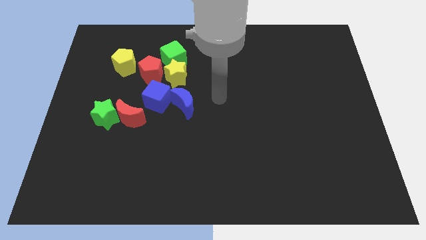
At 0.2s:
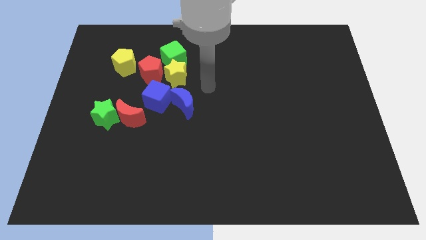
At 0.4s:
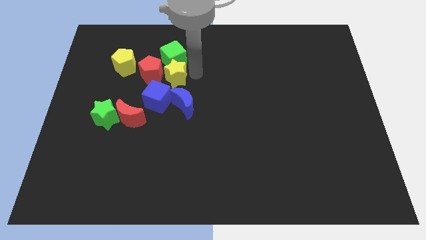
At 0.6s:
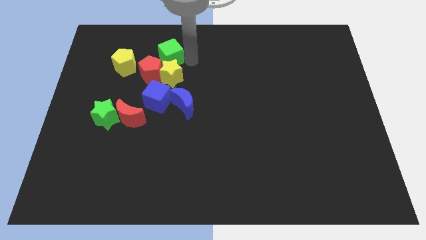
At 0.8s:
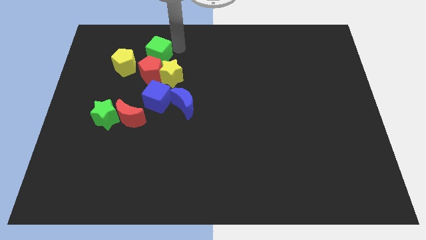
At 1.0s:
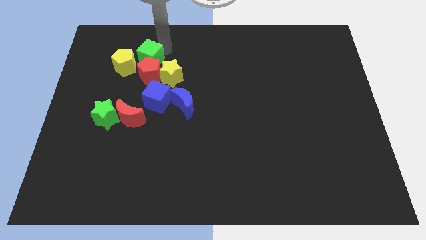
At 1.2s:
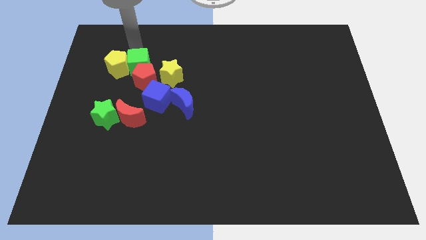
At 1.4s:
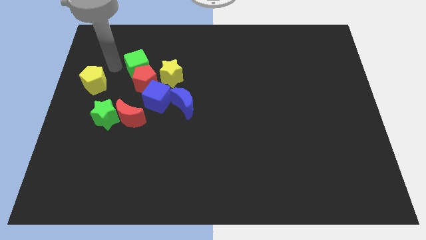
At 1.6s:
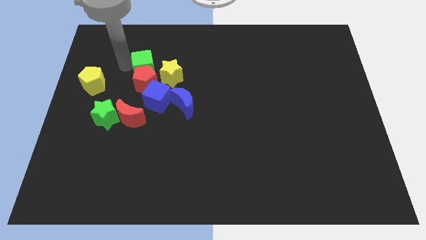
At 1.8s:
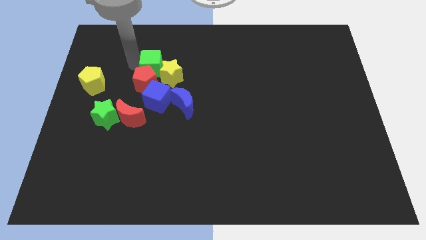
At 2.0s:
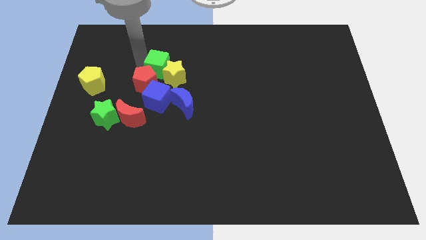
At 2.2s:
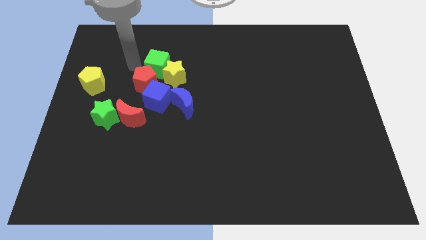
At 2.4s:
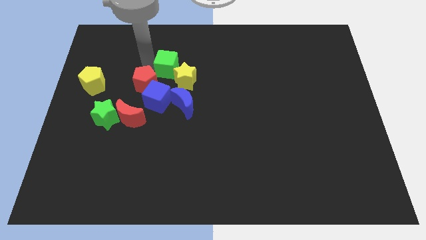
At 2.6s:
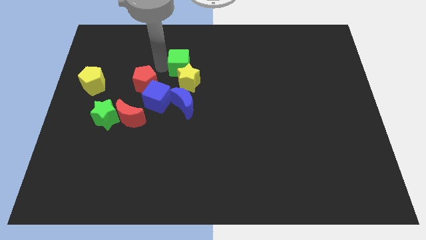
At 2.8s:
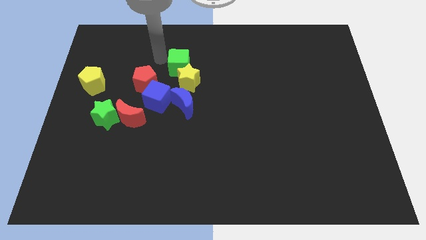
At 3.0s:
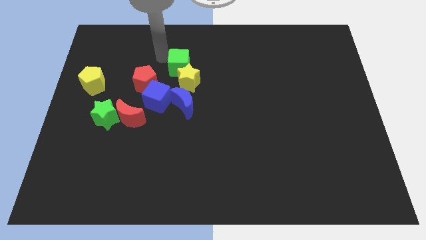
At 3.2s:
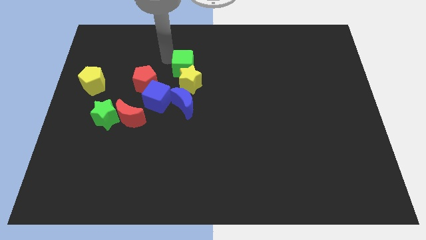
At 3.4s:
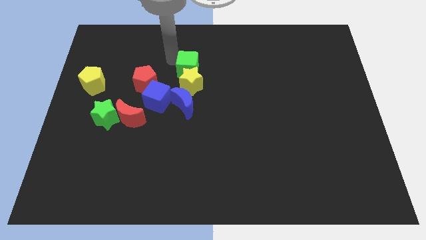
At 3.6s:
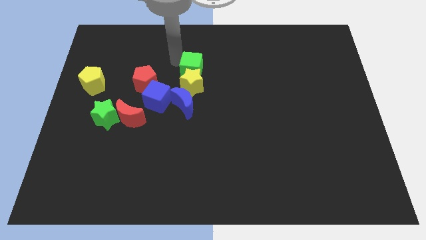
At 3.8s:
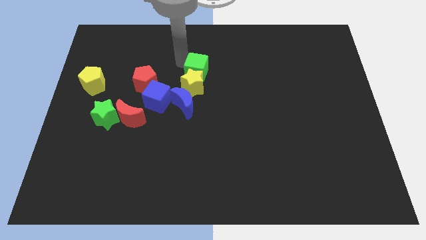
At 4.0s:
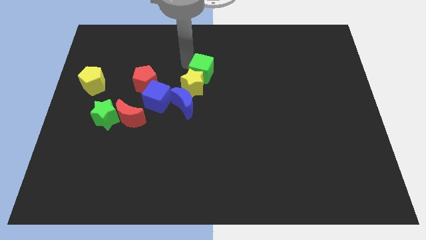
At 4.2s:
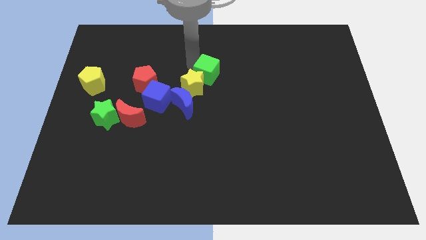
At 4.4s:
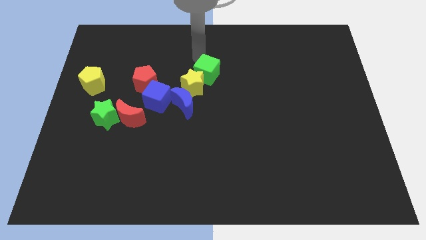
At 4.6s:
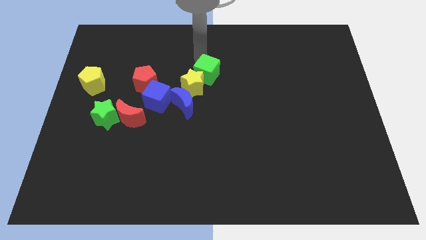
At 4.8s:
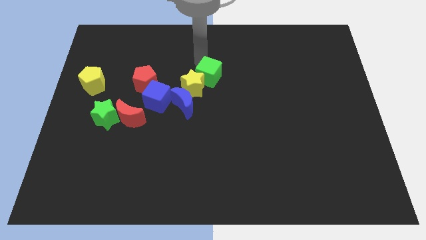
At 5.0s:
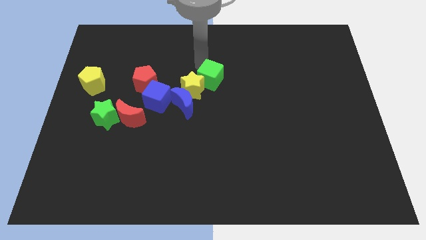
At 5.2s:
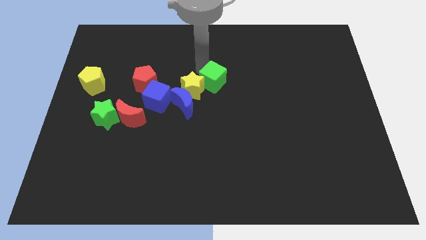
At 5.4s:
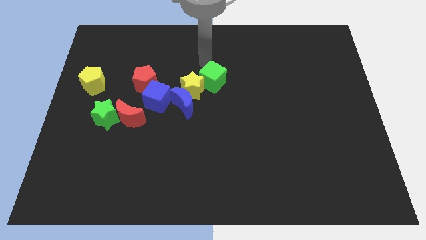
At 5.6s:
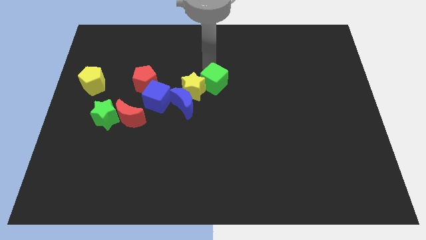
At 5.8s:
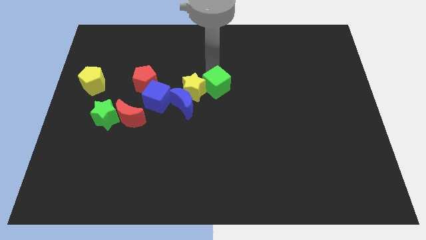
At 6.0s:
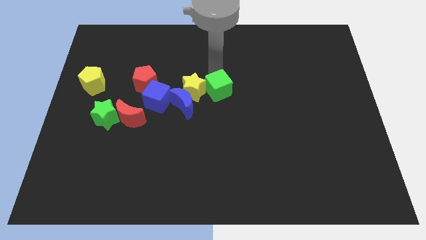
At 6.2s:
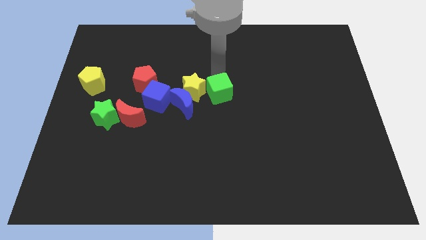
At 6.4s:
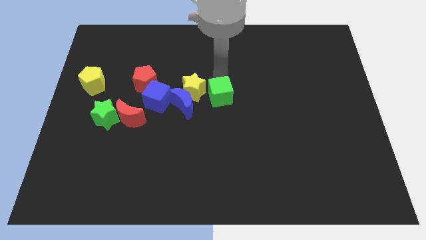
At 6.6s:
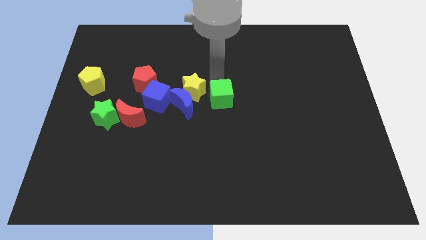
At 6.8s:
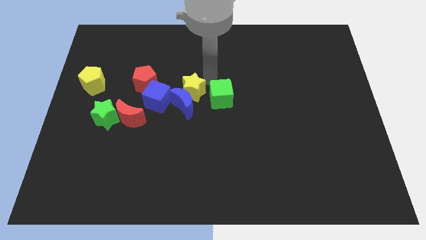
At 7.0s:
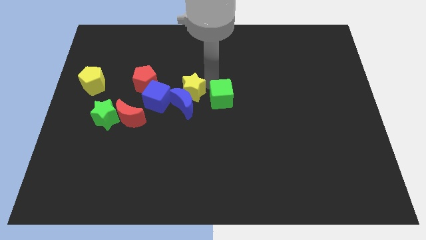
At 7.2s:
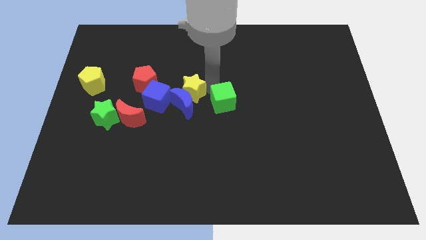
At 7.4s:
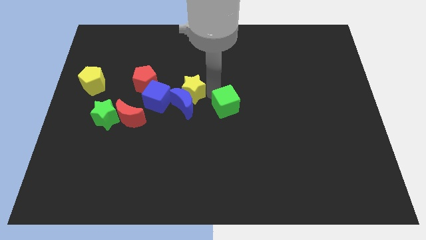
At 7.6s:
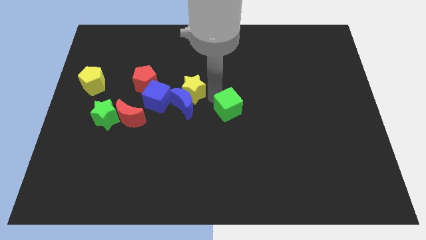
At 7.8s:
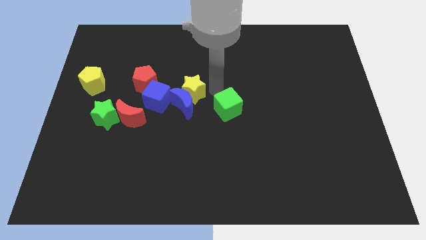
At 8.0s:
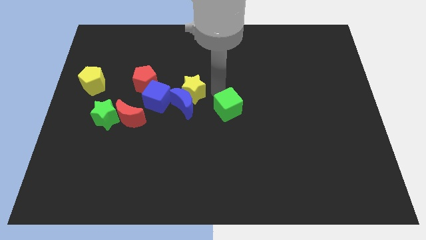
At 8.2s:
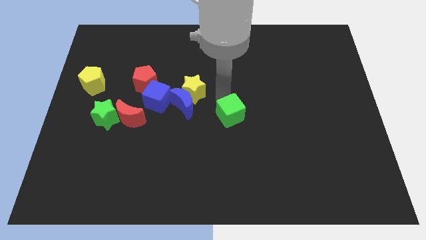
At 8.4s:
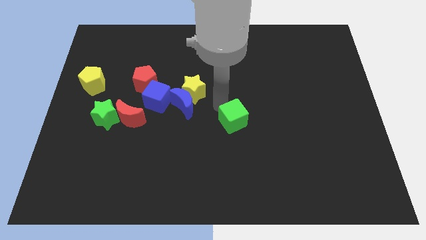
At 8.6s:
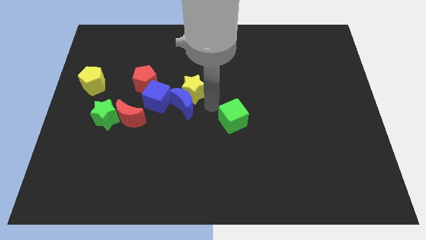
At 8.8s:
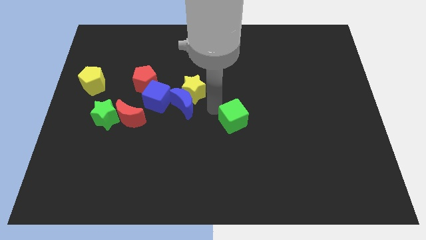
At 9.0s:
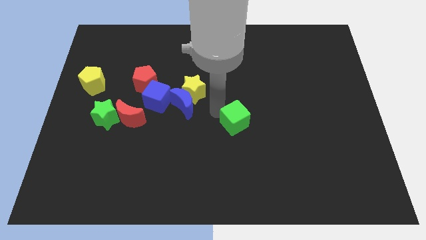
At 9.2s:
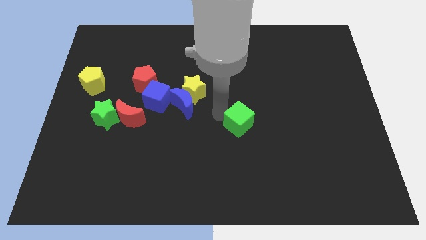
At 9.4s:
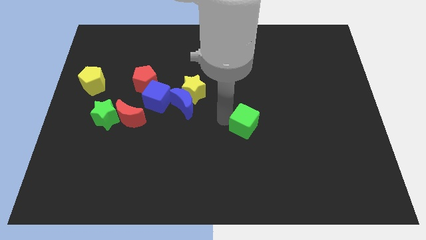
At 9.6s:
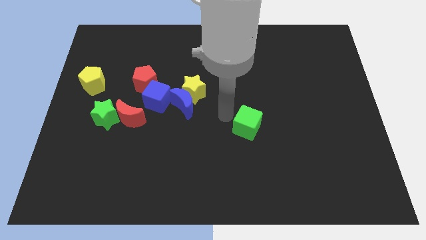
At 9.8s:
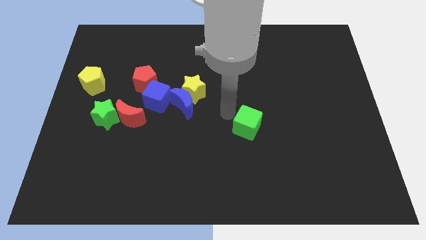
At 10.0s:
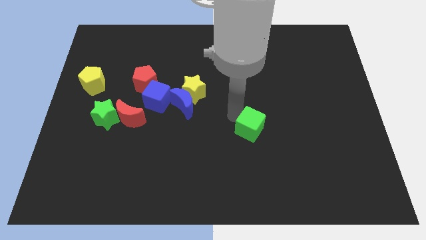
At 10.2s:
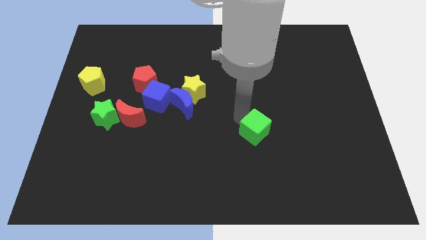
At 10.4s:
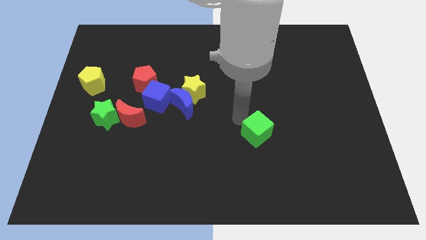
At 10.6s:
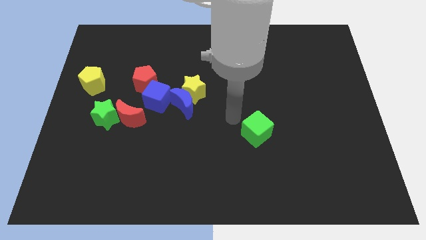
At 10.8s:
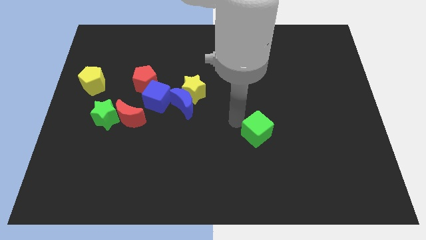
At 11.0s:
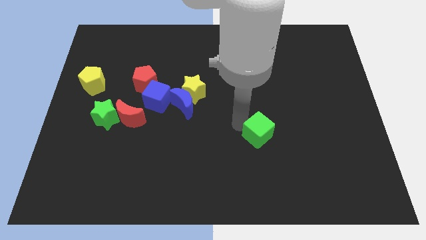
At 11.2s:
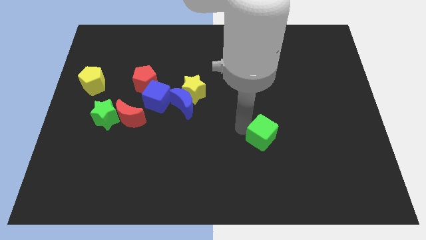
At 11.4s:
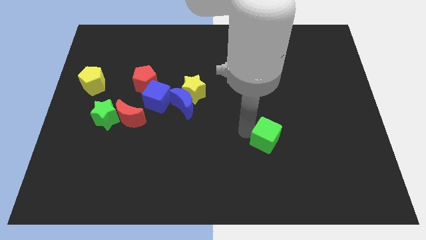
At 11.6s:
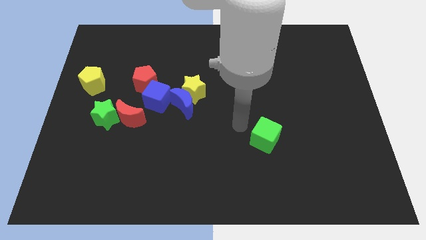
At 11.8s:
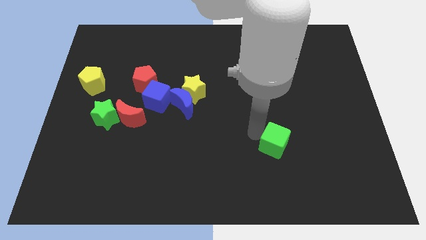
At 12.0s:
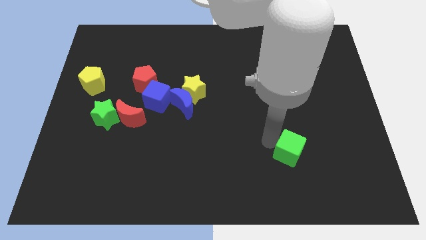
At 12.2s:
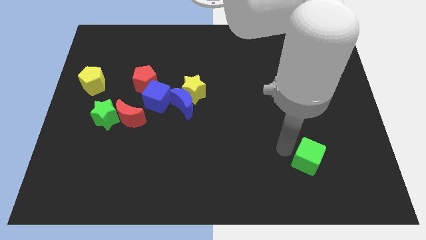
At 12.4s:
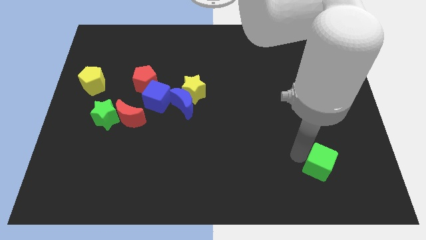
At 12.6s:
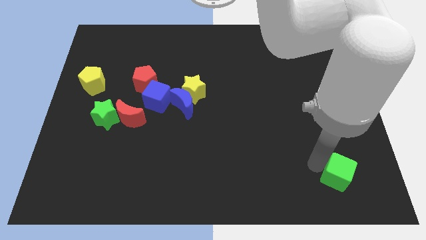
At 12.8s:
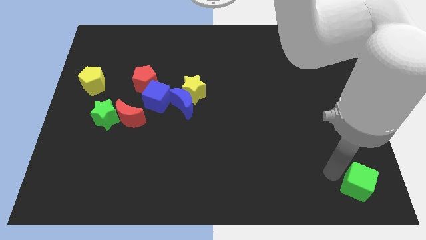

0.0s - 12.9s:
put the green cube to the lower right corner

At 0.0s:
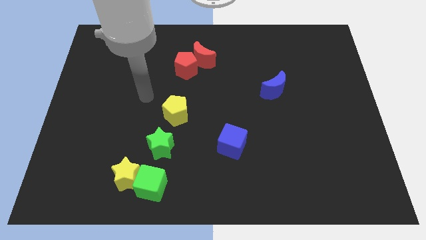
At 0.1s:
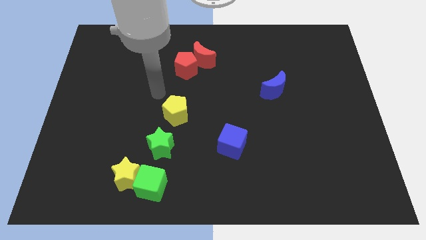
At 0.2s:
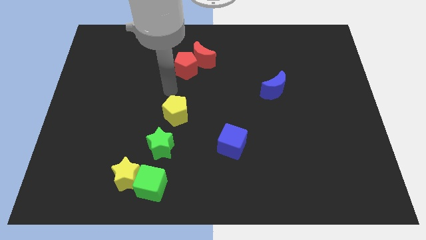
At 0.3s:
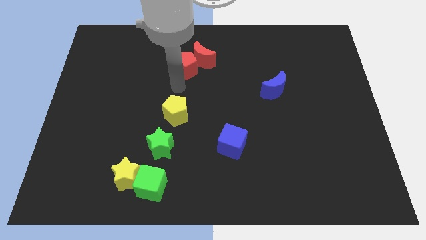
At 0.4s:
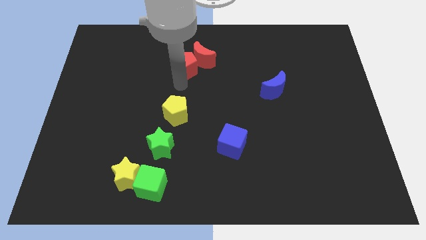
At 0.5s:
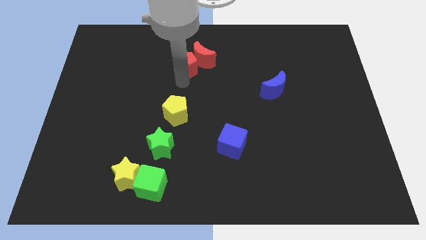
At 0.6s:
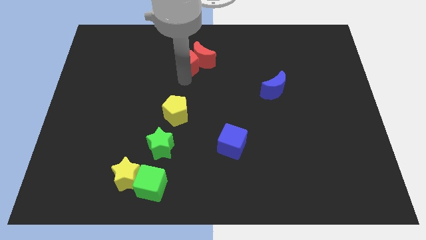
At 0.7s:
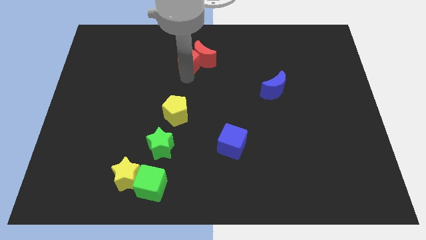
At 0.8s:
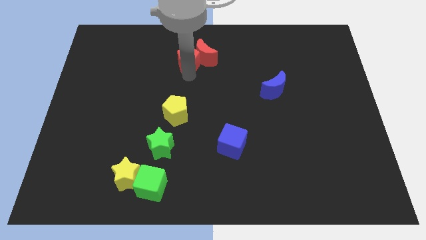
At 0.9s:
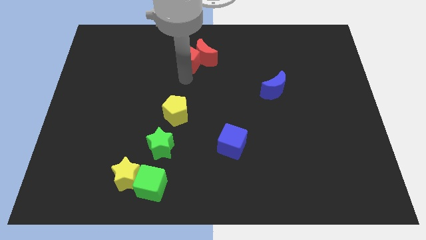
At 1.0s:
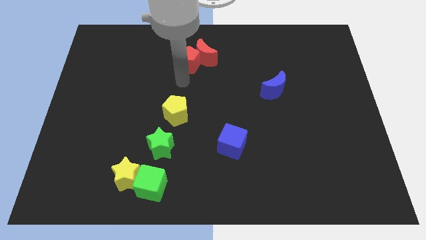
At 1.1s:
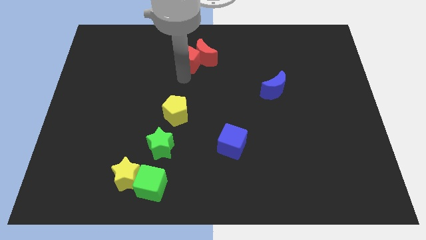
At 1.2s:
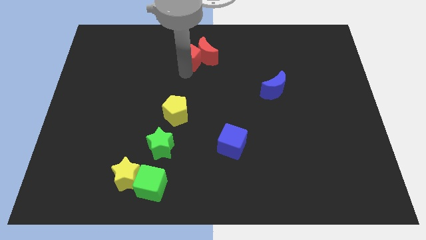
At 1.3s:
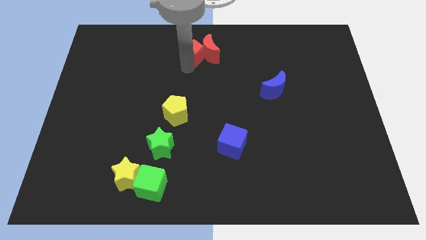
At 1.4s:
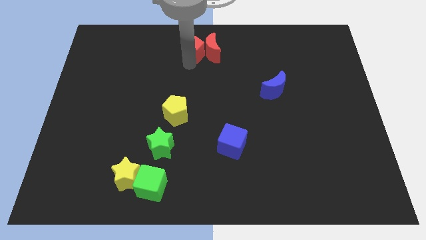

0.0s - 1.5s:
slide the red pentagon to the towards your base
